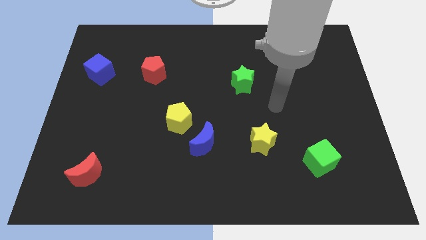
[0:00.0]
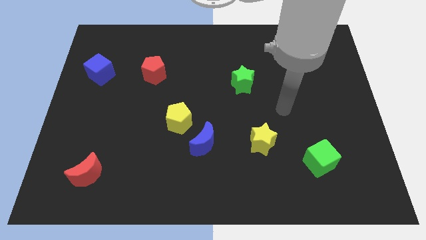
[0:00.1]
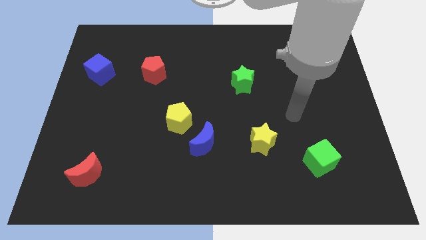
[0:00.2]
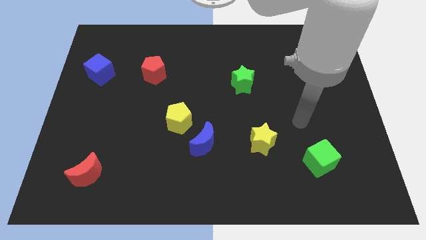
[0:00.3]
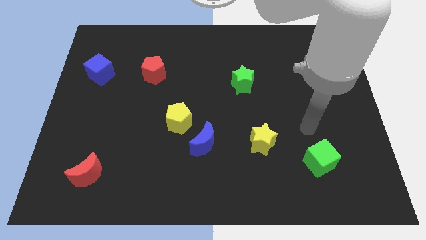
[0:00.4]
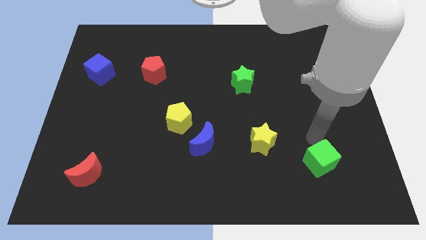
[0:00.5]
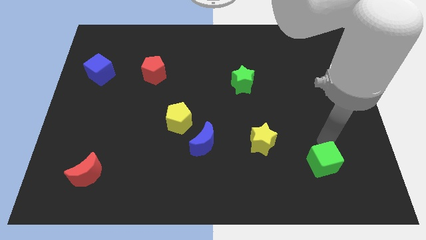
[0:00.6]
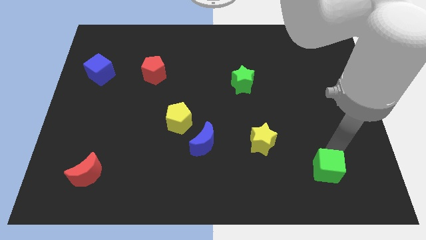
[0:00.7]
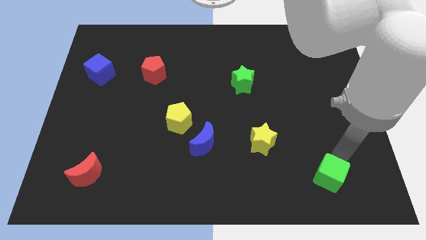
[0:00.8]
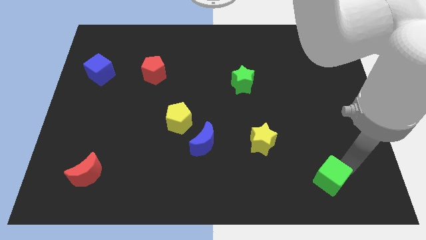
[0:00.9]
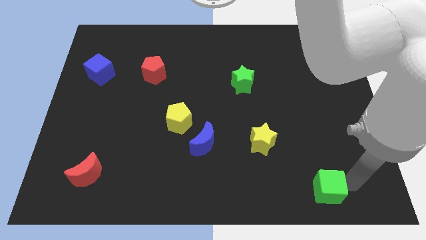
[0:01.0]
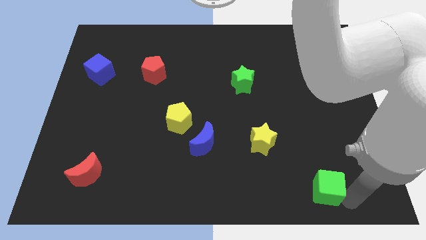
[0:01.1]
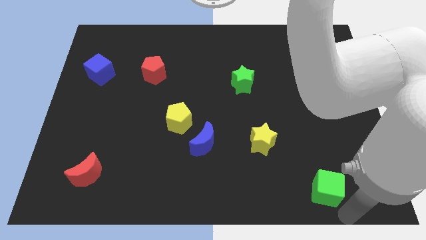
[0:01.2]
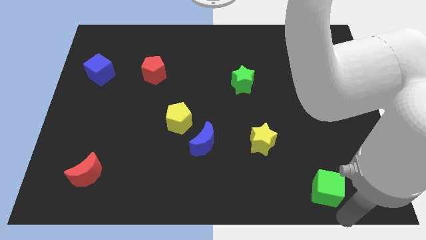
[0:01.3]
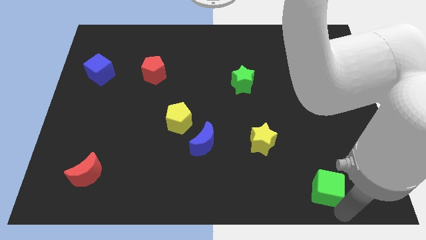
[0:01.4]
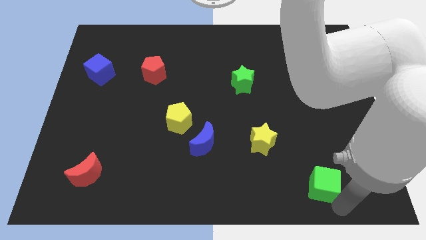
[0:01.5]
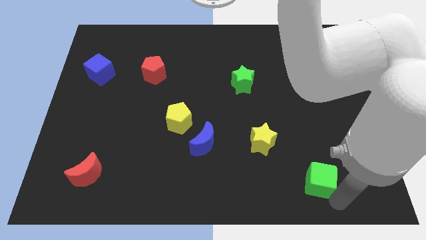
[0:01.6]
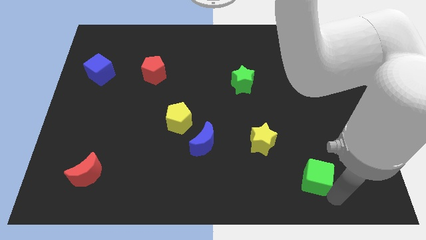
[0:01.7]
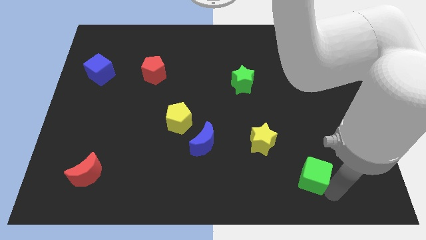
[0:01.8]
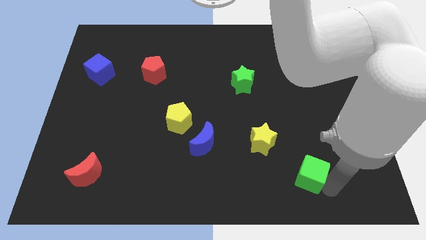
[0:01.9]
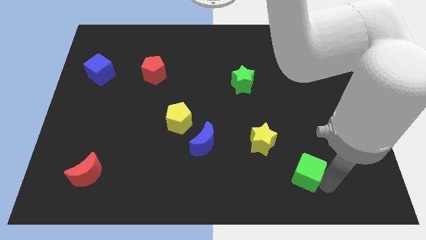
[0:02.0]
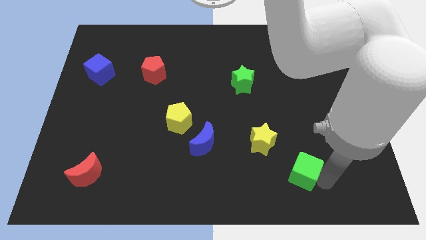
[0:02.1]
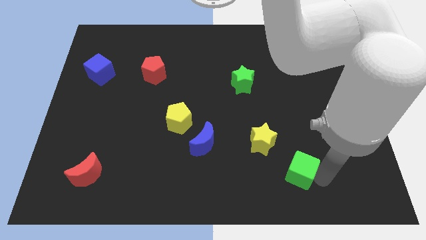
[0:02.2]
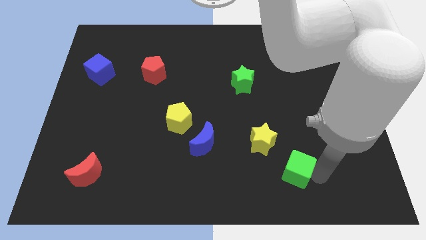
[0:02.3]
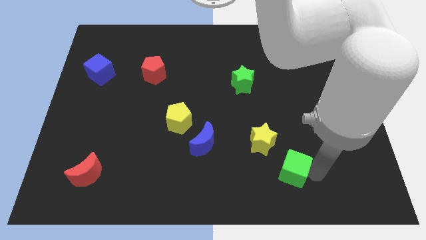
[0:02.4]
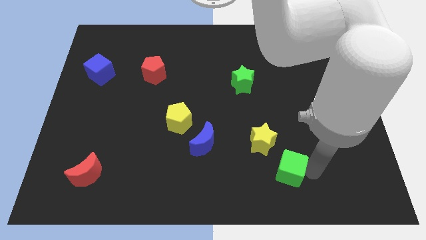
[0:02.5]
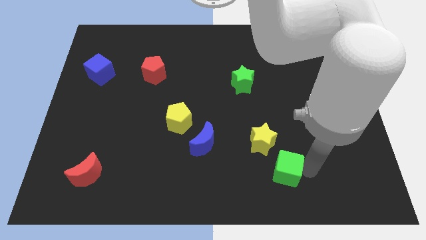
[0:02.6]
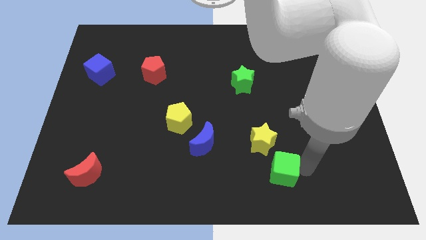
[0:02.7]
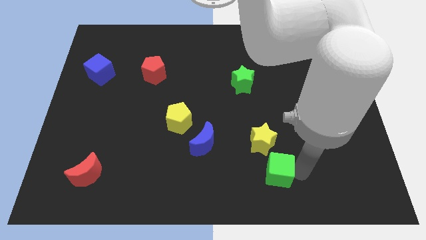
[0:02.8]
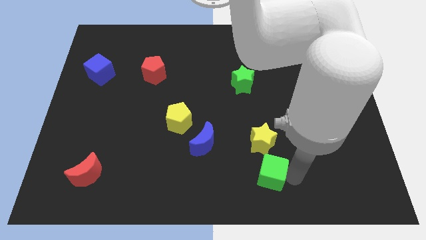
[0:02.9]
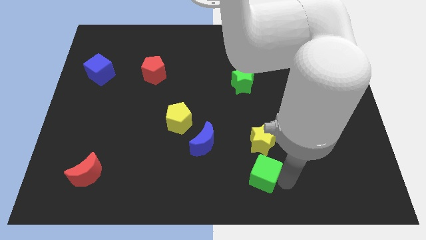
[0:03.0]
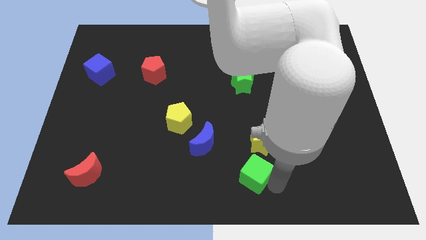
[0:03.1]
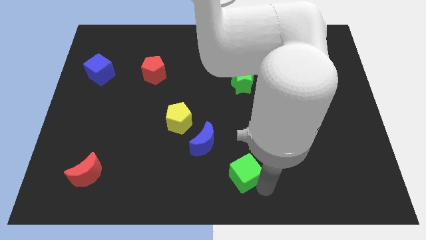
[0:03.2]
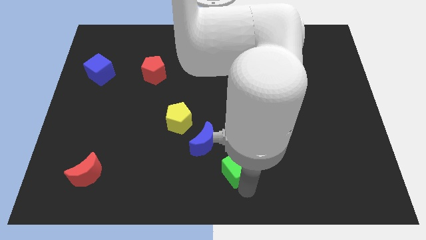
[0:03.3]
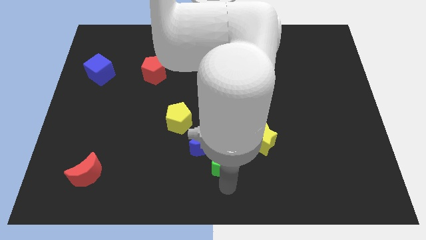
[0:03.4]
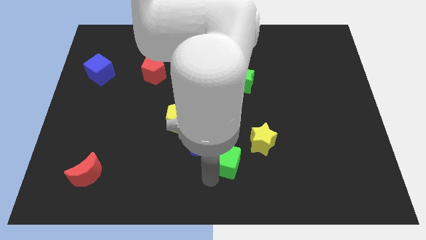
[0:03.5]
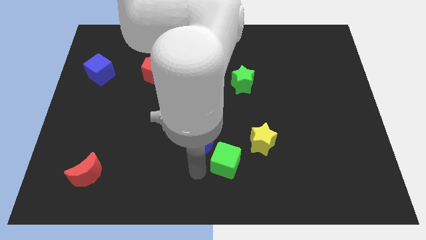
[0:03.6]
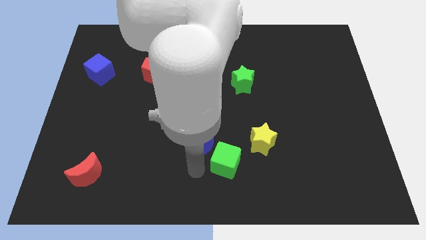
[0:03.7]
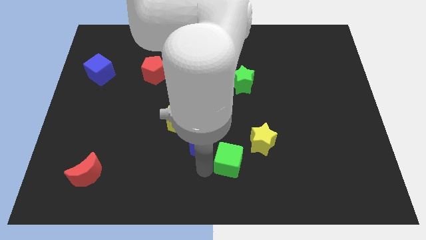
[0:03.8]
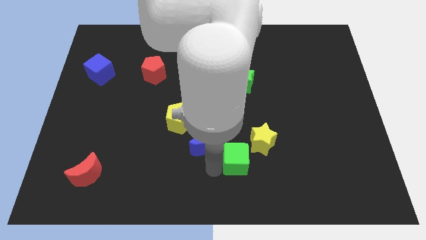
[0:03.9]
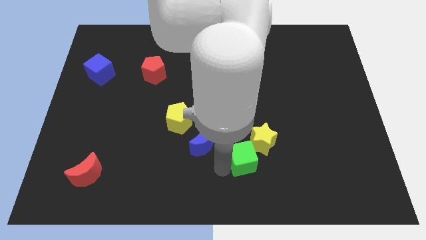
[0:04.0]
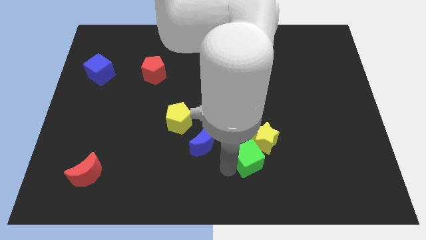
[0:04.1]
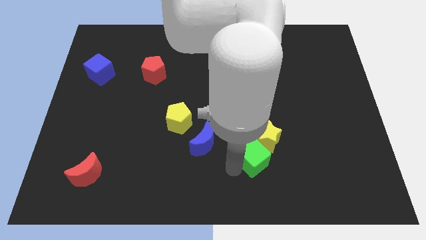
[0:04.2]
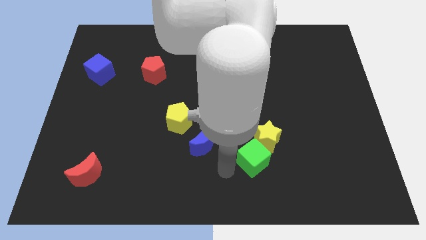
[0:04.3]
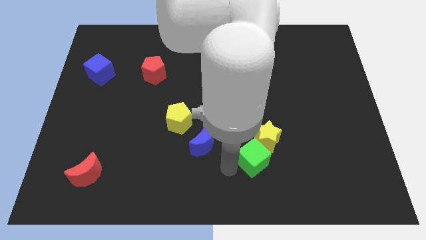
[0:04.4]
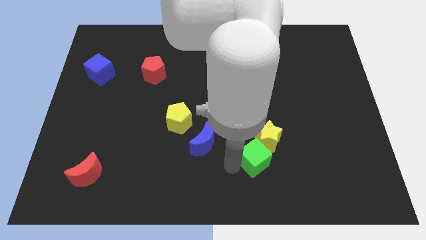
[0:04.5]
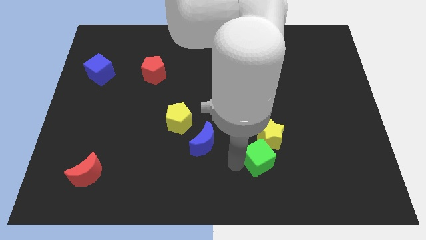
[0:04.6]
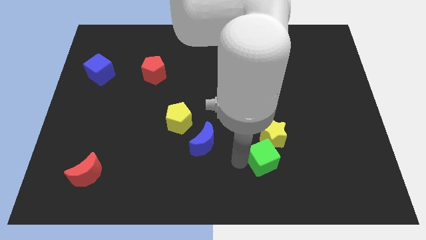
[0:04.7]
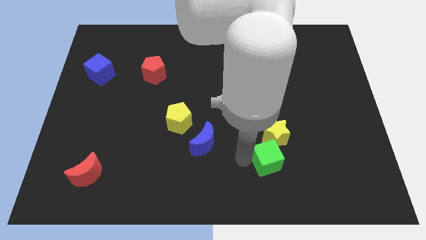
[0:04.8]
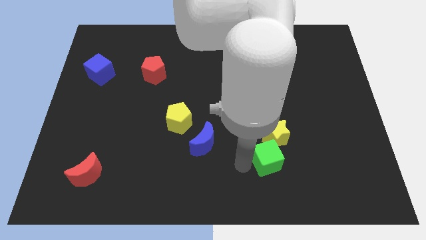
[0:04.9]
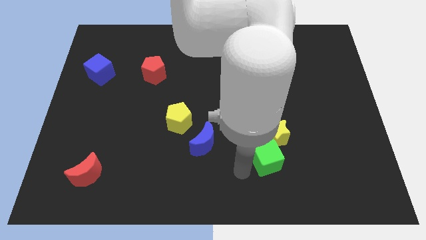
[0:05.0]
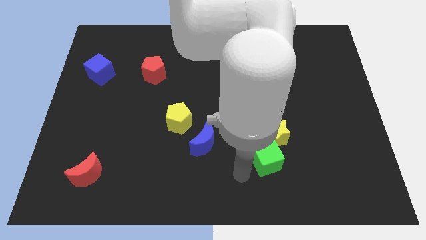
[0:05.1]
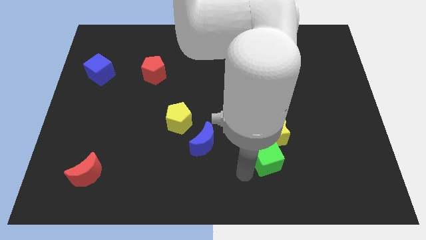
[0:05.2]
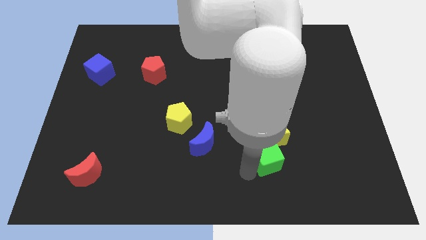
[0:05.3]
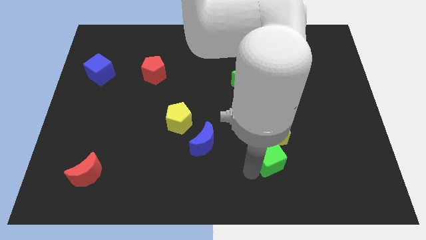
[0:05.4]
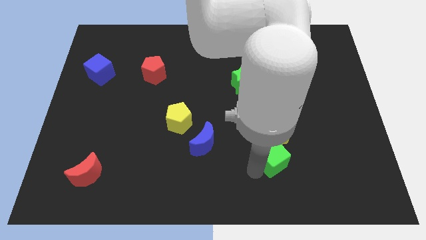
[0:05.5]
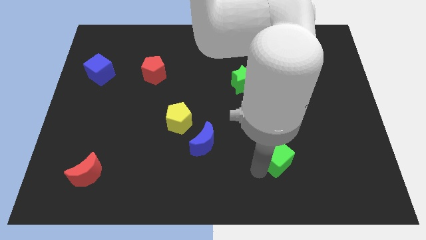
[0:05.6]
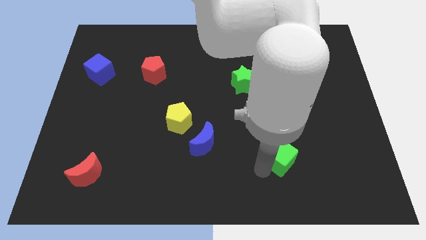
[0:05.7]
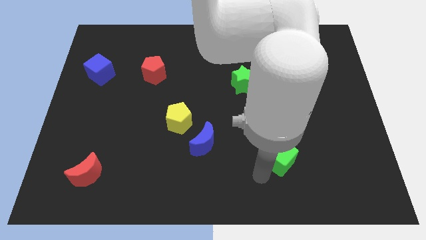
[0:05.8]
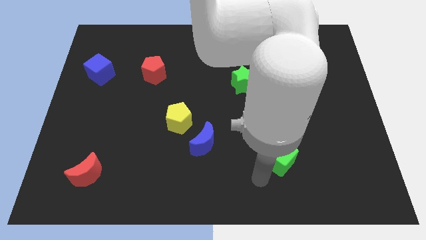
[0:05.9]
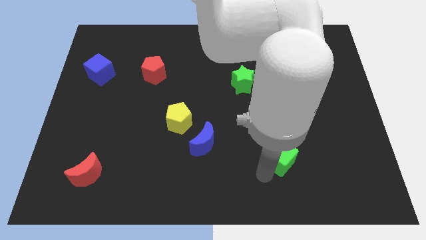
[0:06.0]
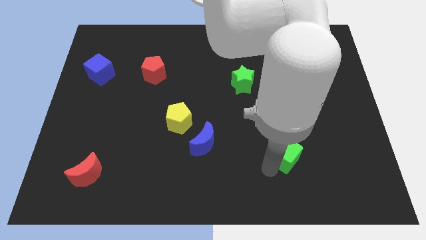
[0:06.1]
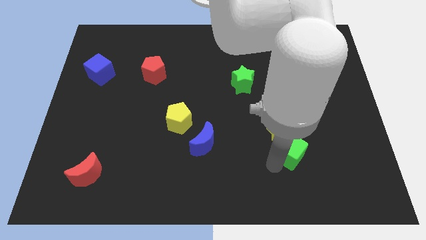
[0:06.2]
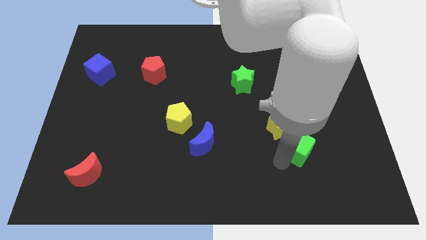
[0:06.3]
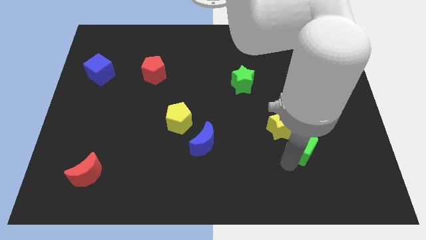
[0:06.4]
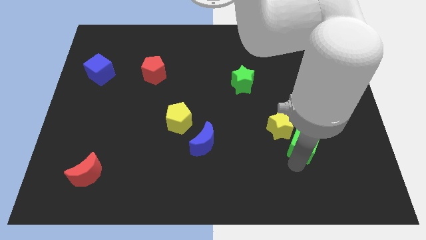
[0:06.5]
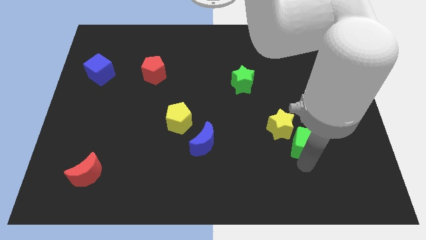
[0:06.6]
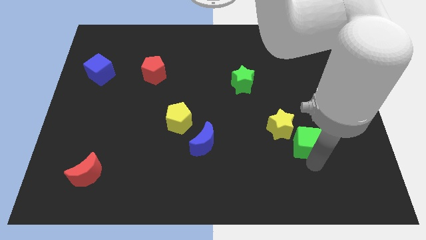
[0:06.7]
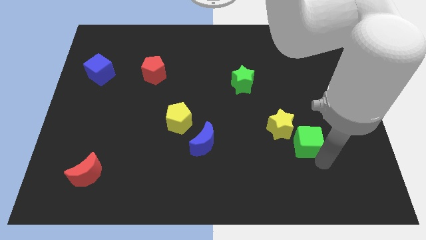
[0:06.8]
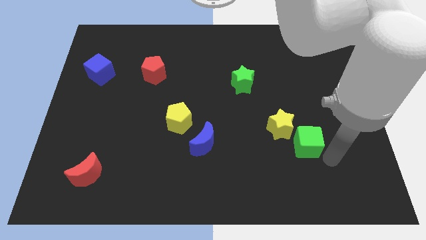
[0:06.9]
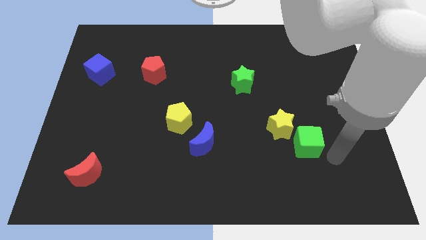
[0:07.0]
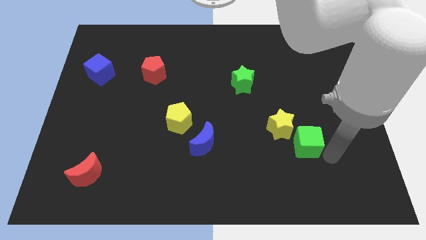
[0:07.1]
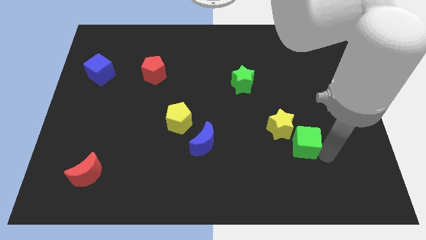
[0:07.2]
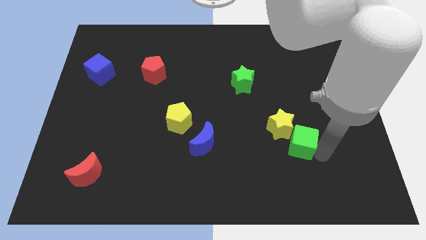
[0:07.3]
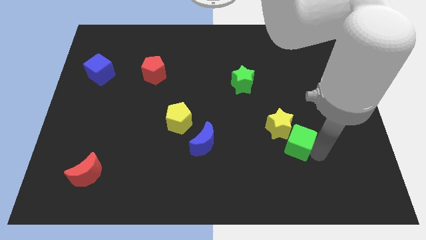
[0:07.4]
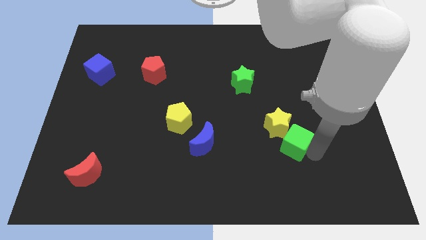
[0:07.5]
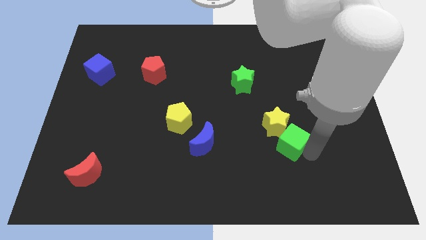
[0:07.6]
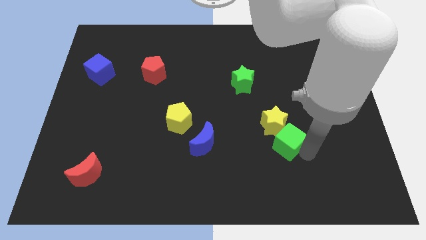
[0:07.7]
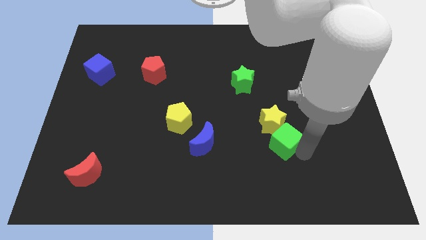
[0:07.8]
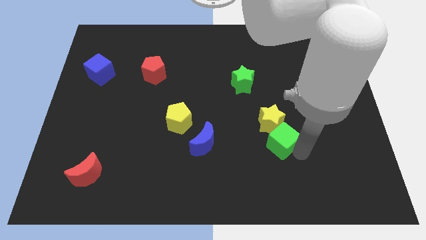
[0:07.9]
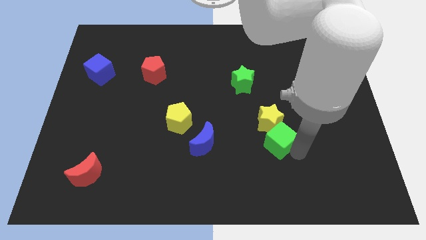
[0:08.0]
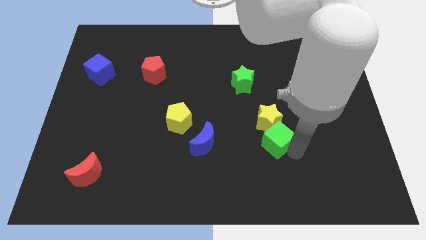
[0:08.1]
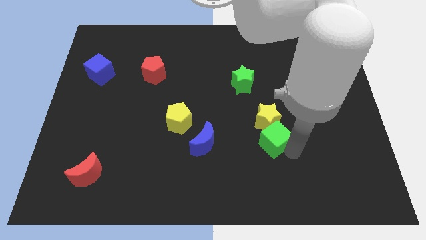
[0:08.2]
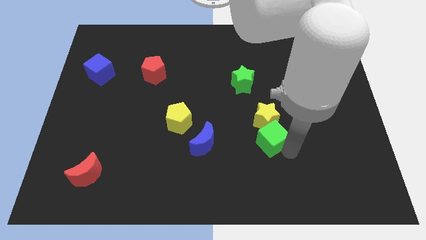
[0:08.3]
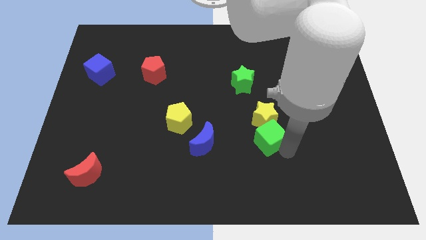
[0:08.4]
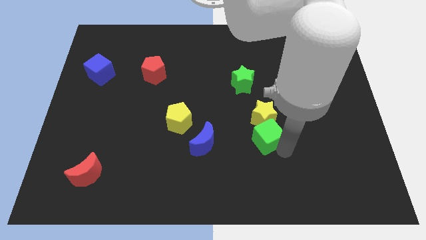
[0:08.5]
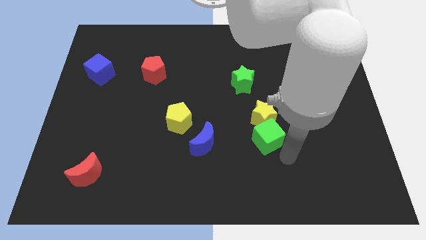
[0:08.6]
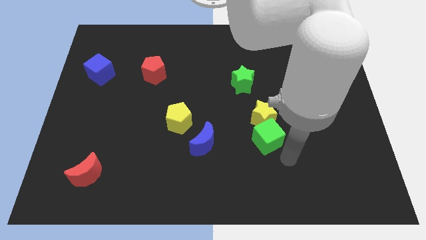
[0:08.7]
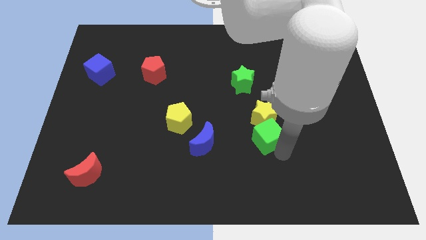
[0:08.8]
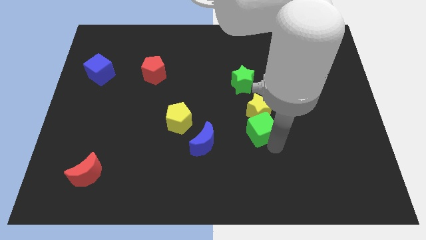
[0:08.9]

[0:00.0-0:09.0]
move the green cube to the bottom of the green star
